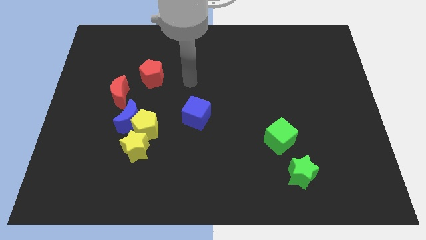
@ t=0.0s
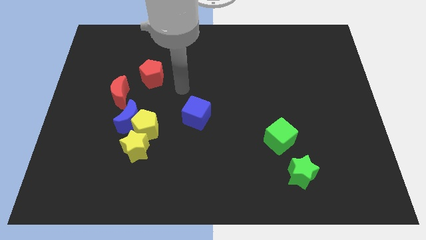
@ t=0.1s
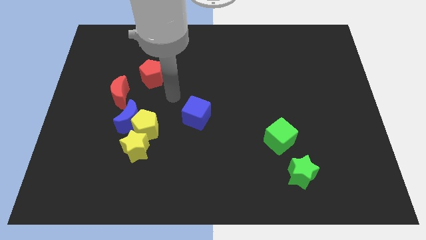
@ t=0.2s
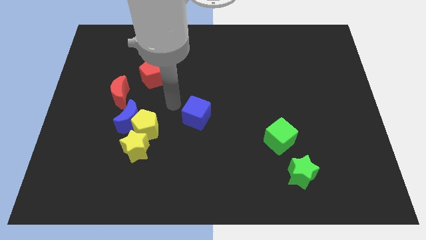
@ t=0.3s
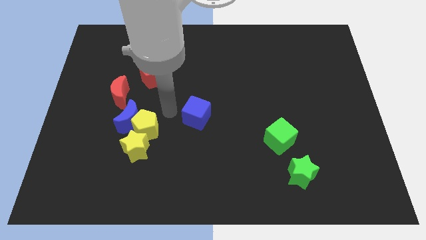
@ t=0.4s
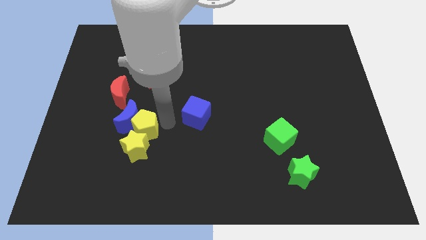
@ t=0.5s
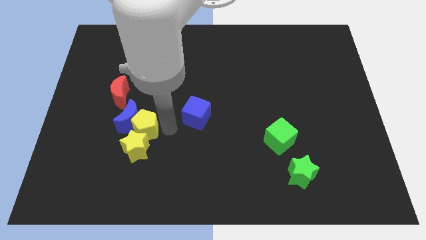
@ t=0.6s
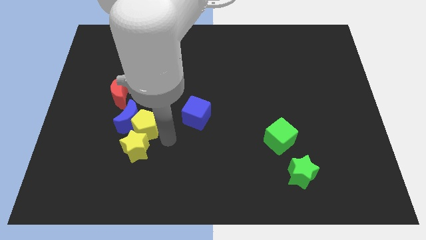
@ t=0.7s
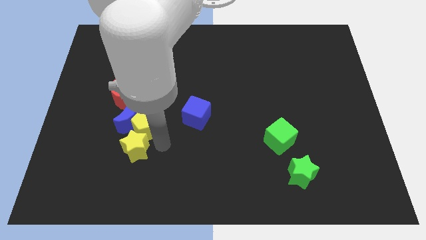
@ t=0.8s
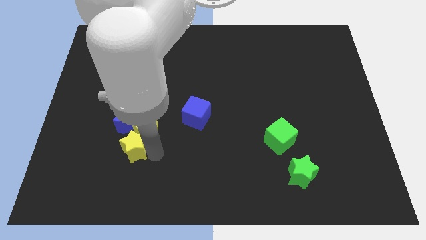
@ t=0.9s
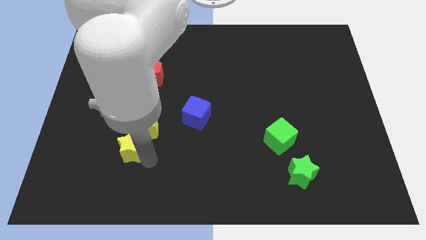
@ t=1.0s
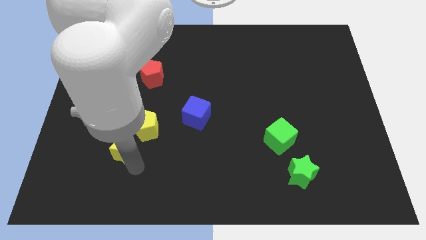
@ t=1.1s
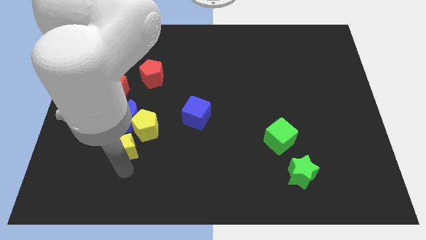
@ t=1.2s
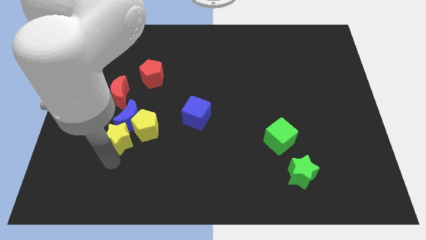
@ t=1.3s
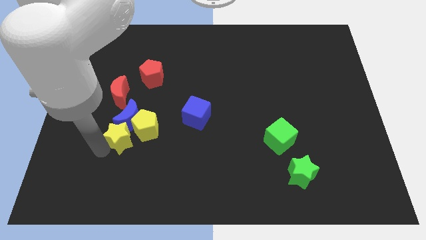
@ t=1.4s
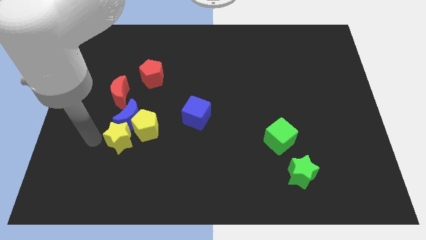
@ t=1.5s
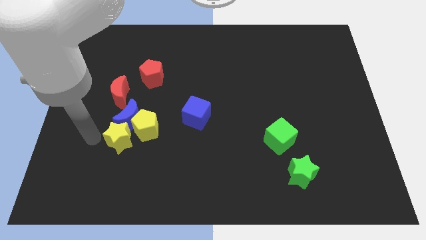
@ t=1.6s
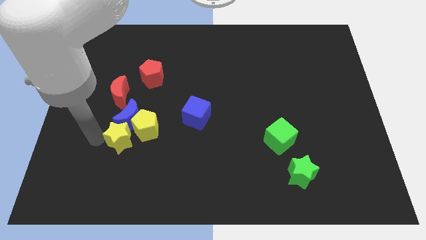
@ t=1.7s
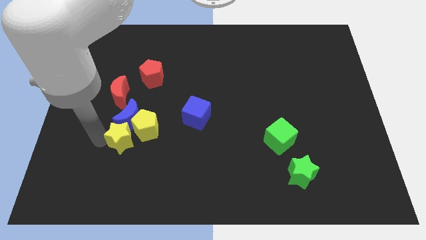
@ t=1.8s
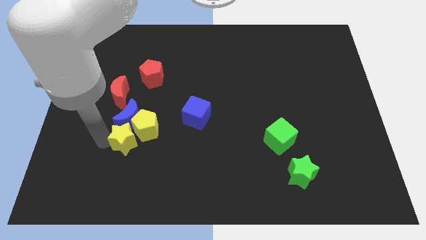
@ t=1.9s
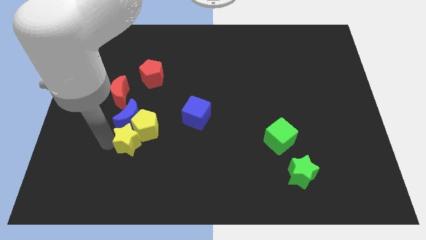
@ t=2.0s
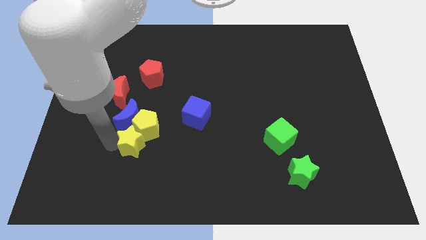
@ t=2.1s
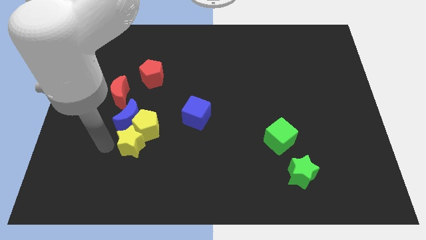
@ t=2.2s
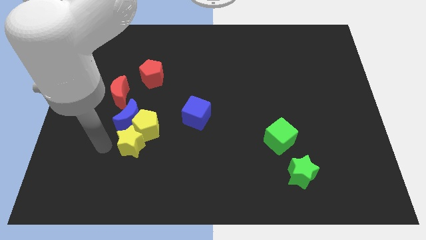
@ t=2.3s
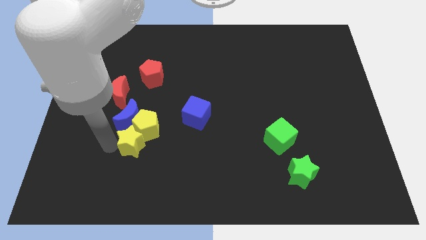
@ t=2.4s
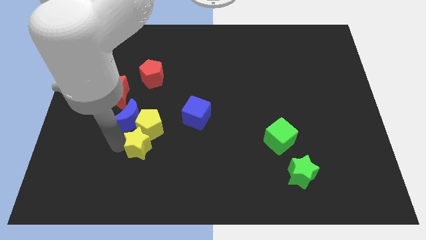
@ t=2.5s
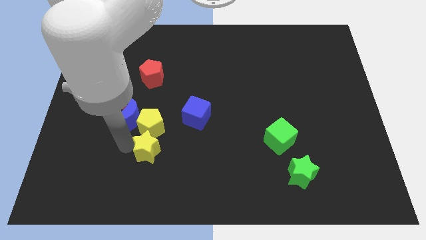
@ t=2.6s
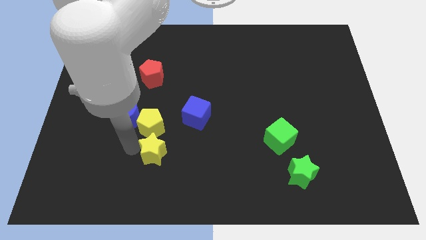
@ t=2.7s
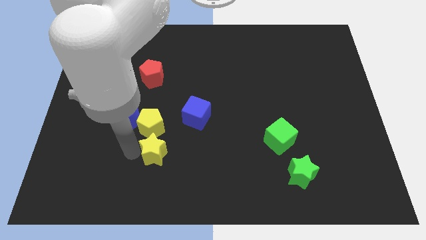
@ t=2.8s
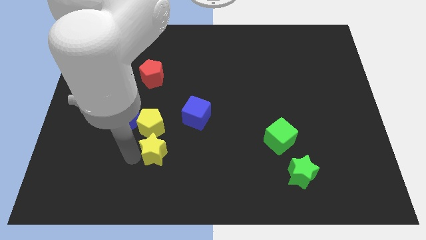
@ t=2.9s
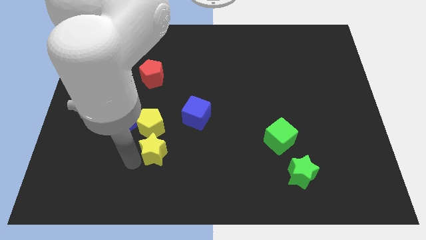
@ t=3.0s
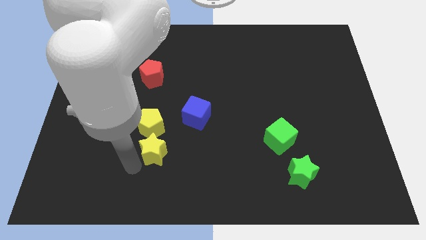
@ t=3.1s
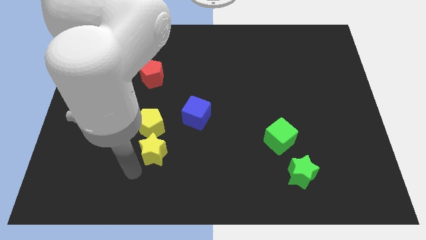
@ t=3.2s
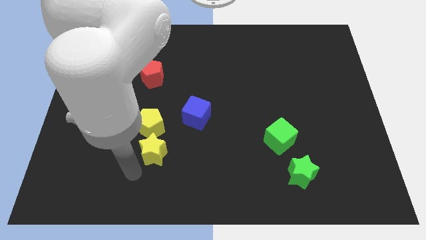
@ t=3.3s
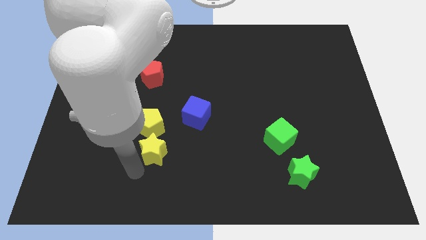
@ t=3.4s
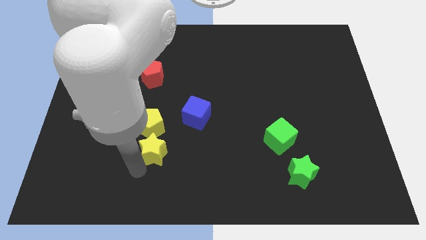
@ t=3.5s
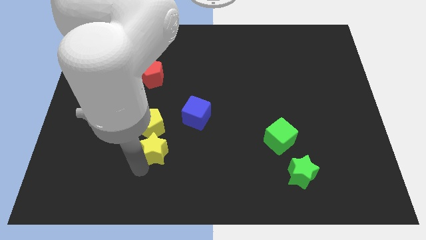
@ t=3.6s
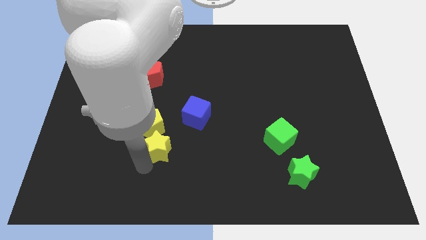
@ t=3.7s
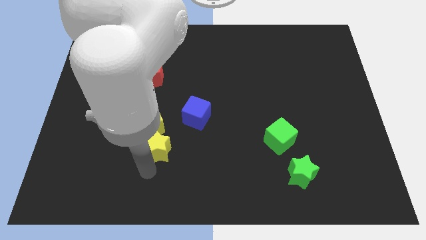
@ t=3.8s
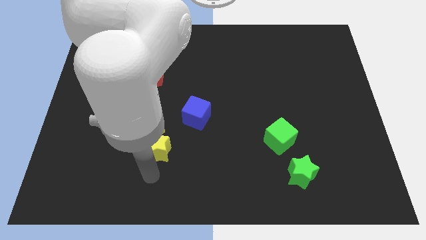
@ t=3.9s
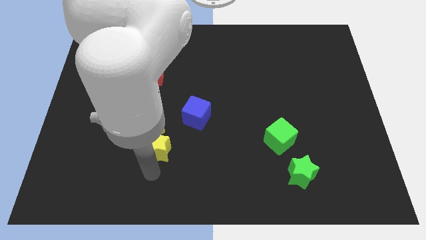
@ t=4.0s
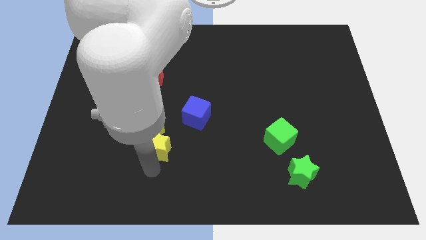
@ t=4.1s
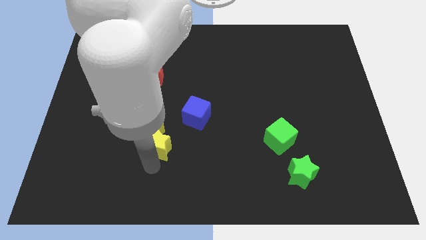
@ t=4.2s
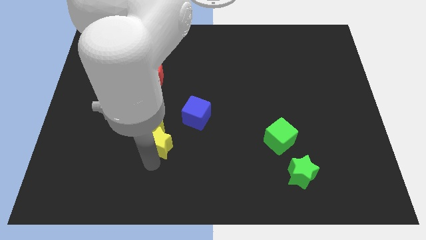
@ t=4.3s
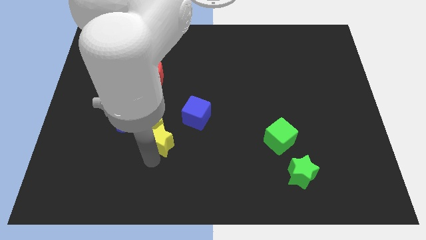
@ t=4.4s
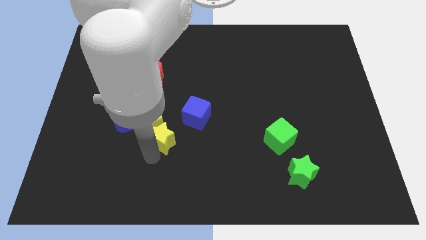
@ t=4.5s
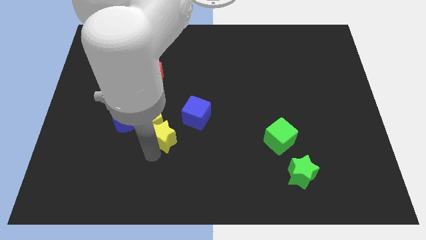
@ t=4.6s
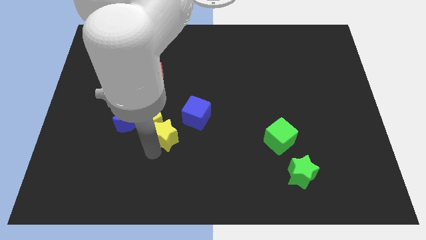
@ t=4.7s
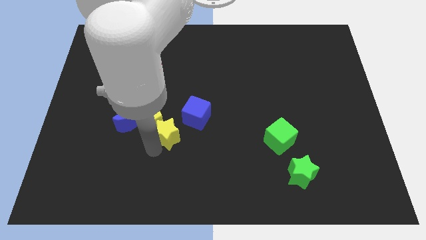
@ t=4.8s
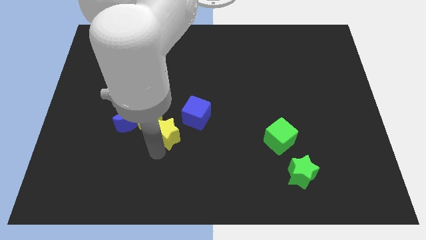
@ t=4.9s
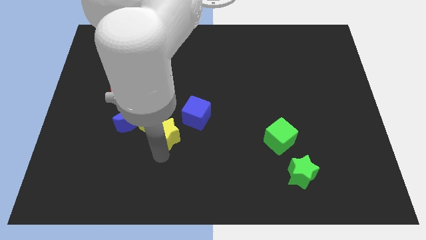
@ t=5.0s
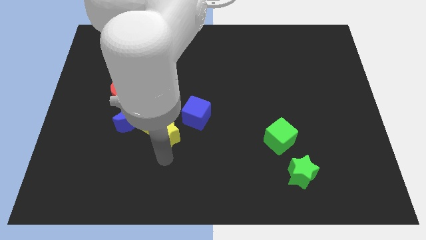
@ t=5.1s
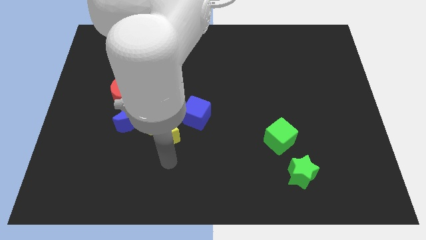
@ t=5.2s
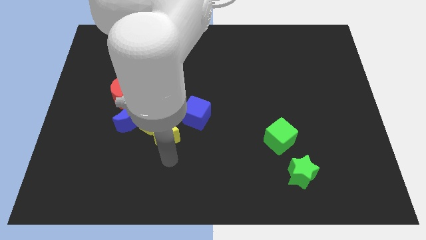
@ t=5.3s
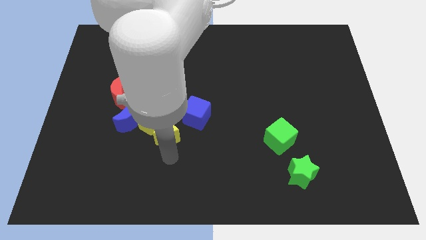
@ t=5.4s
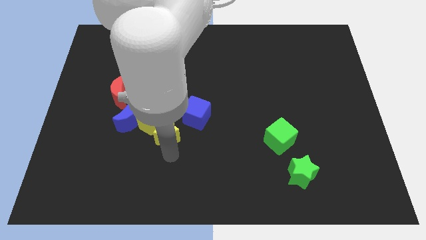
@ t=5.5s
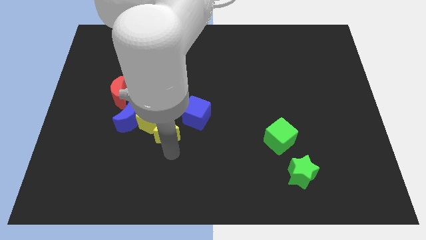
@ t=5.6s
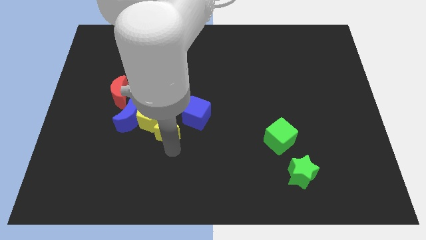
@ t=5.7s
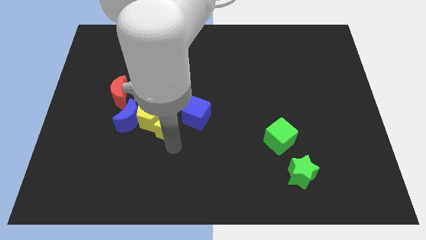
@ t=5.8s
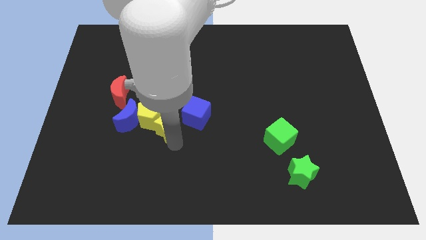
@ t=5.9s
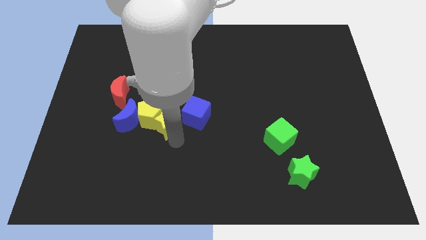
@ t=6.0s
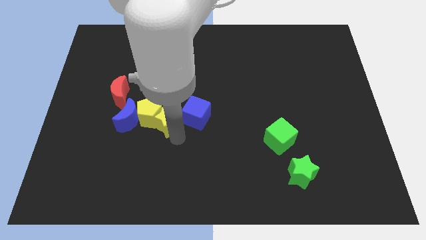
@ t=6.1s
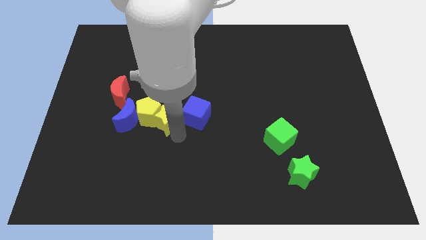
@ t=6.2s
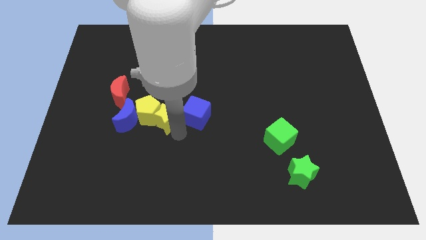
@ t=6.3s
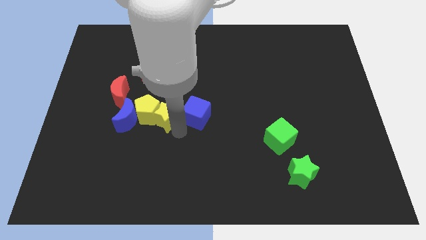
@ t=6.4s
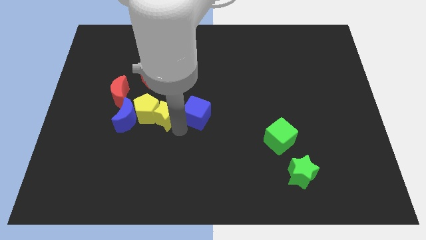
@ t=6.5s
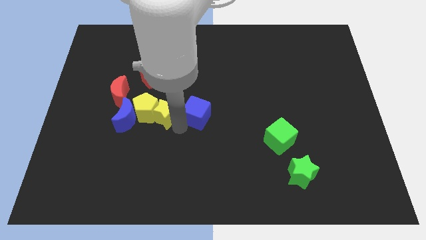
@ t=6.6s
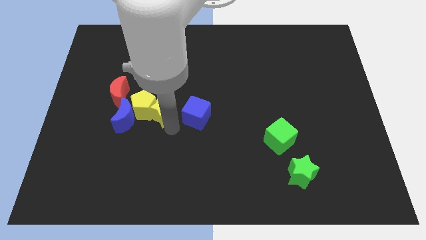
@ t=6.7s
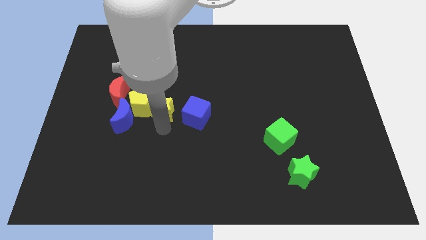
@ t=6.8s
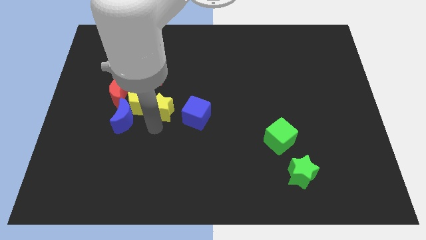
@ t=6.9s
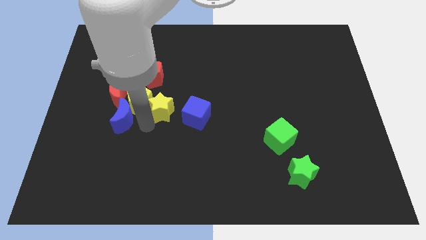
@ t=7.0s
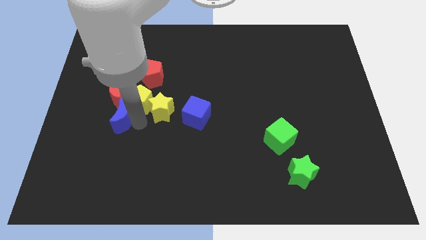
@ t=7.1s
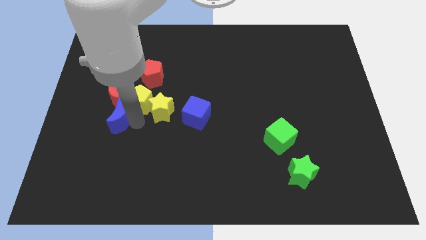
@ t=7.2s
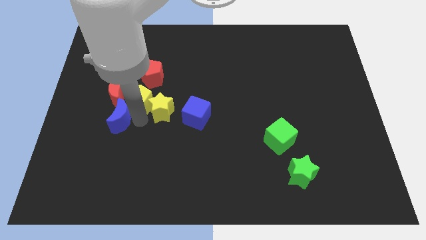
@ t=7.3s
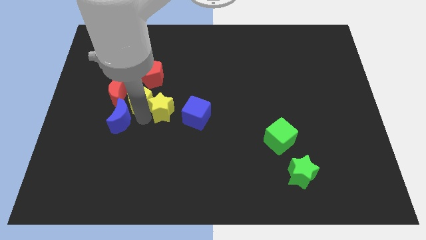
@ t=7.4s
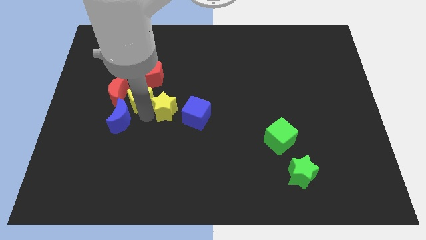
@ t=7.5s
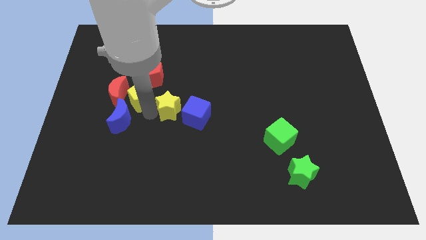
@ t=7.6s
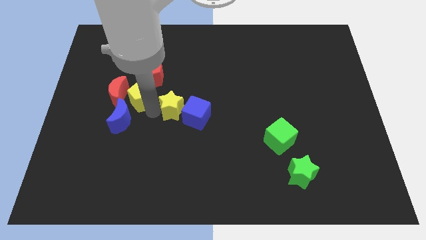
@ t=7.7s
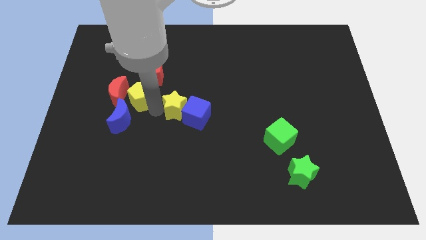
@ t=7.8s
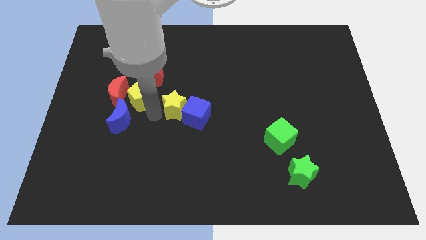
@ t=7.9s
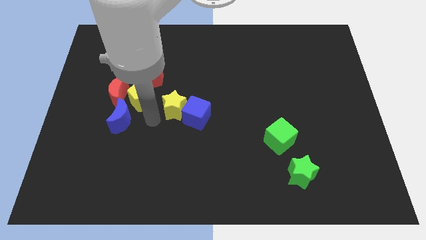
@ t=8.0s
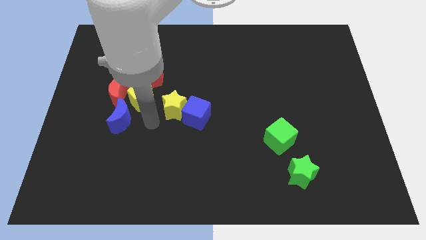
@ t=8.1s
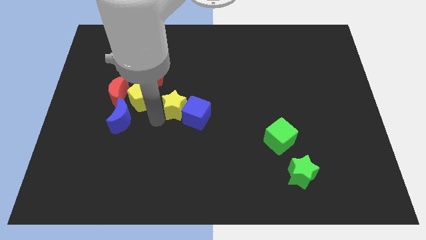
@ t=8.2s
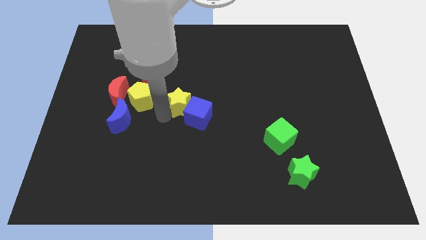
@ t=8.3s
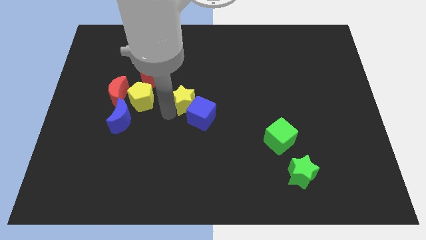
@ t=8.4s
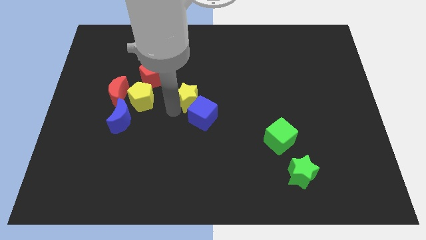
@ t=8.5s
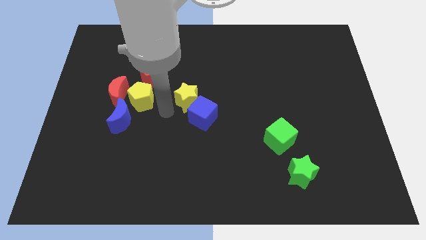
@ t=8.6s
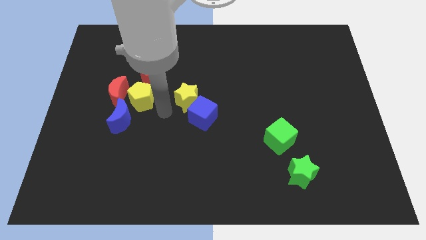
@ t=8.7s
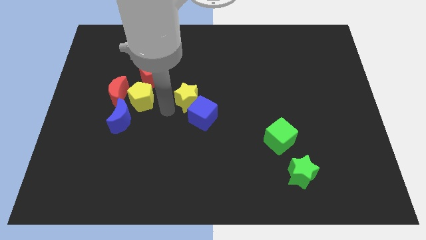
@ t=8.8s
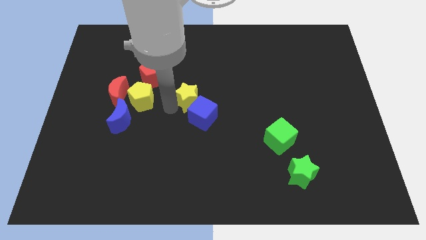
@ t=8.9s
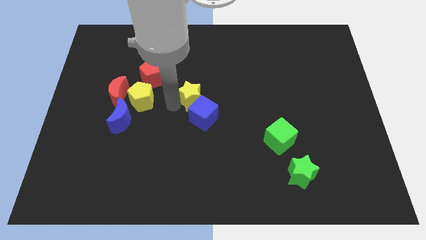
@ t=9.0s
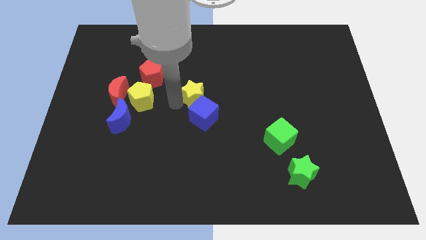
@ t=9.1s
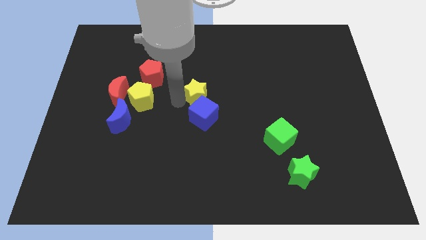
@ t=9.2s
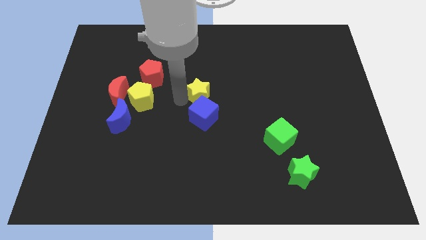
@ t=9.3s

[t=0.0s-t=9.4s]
push the yellow star diagonally upwards and to the right
